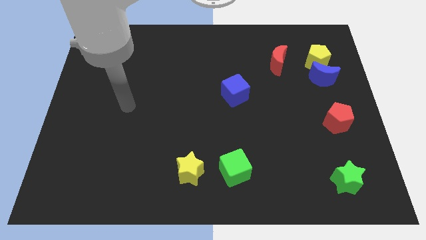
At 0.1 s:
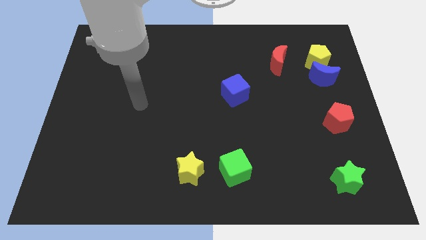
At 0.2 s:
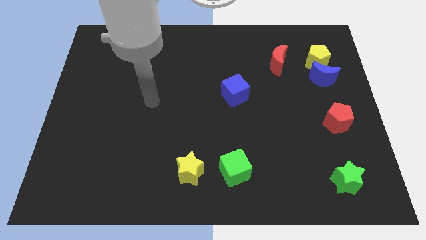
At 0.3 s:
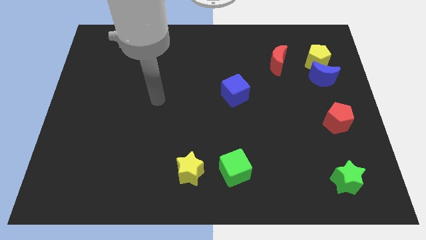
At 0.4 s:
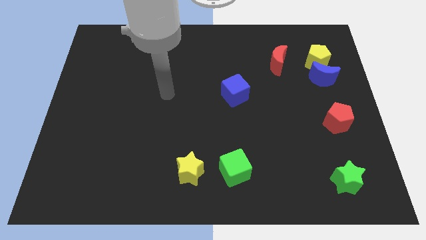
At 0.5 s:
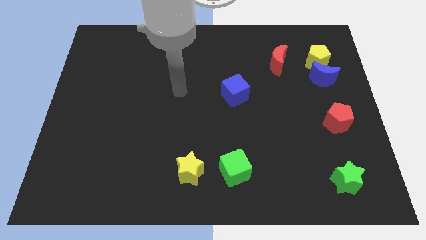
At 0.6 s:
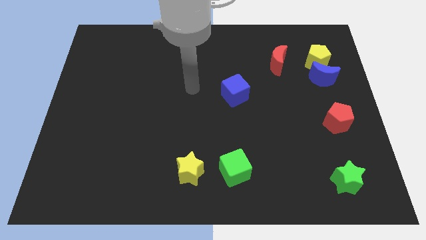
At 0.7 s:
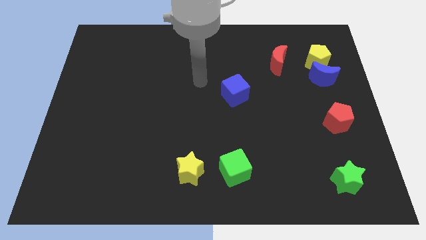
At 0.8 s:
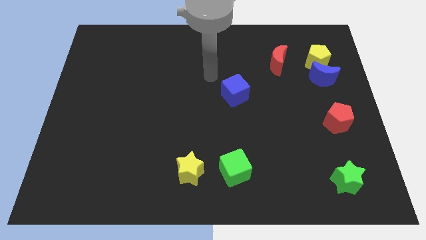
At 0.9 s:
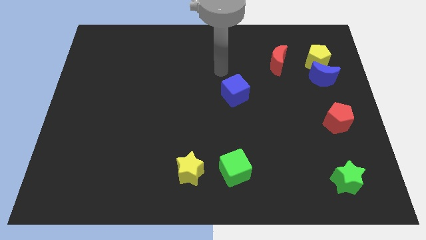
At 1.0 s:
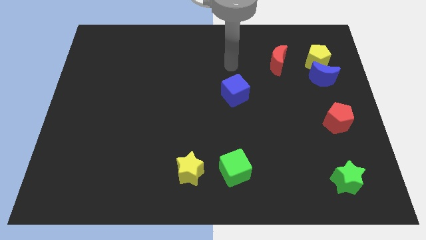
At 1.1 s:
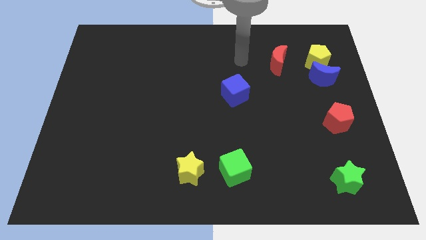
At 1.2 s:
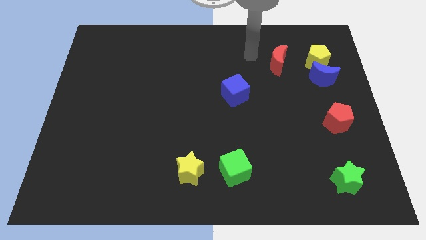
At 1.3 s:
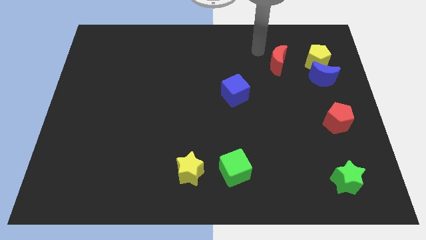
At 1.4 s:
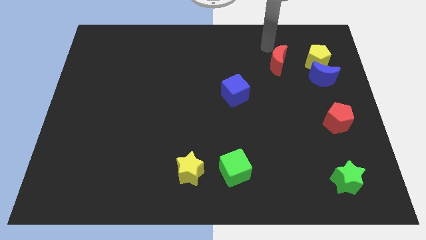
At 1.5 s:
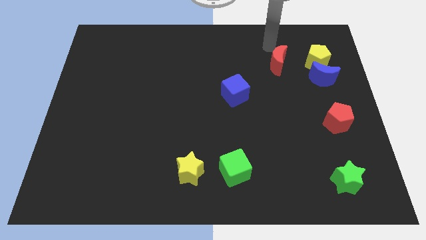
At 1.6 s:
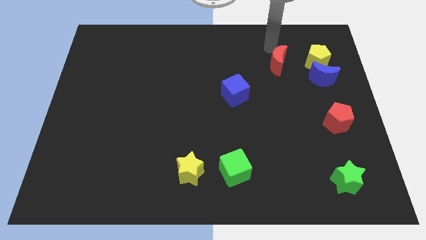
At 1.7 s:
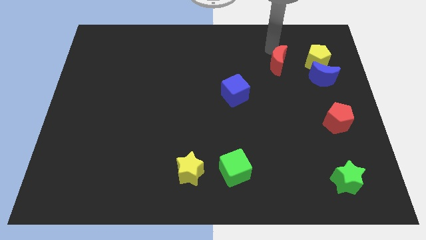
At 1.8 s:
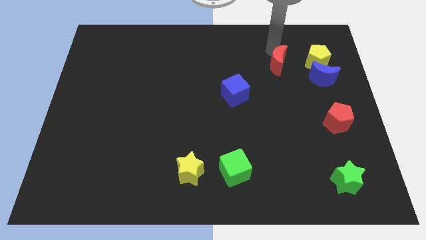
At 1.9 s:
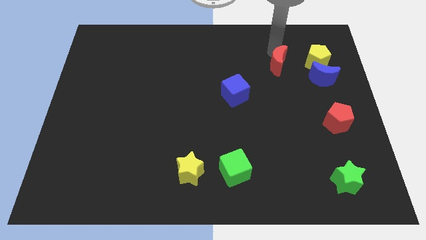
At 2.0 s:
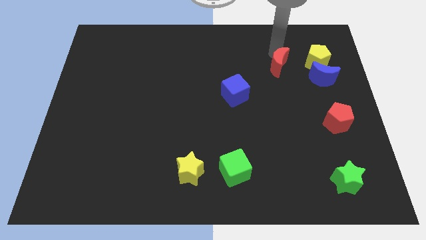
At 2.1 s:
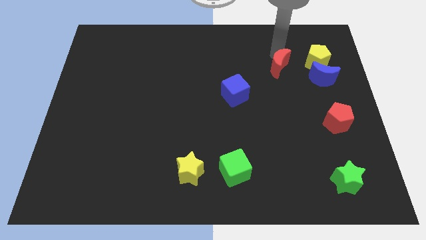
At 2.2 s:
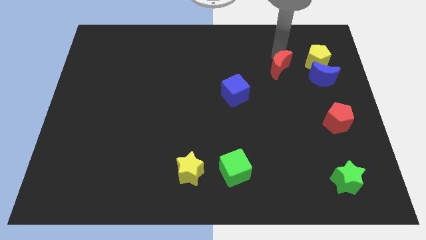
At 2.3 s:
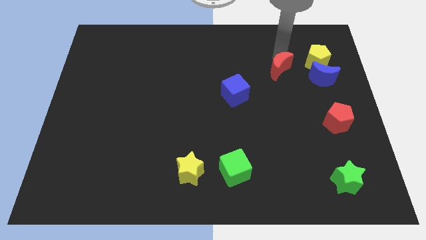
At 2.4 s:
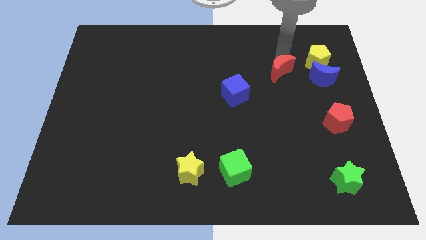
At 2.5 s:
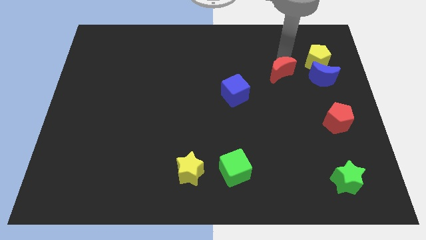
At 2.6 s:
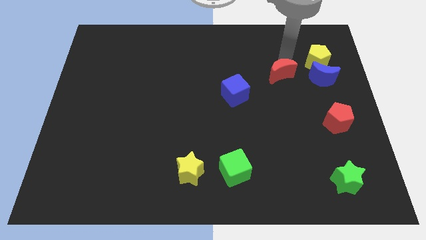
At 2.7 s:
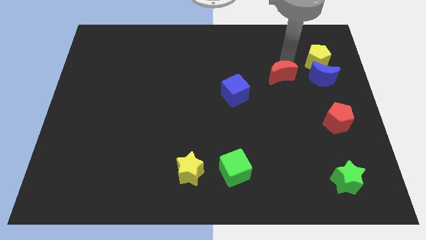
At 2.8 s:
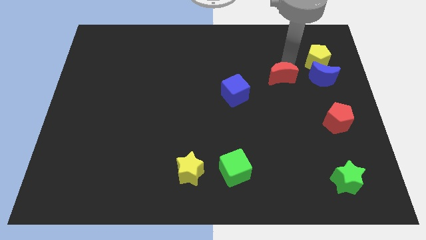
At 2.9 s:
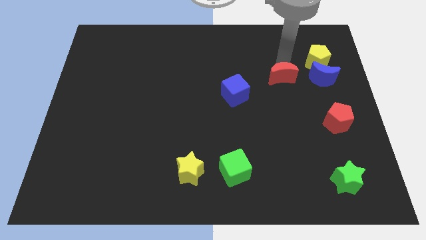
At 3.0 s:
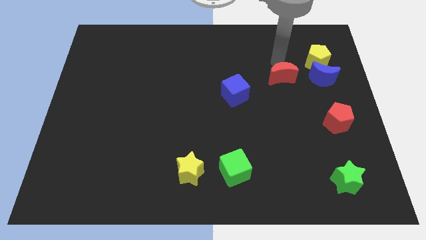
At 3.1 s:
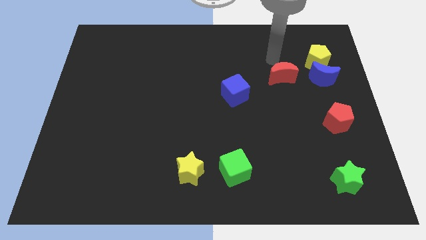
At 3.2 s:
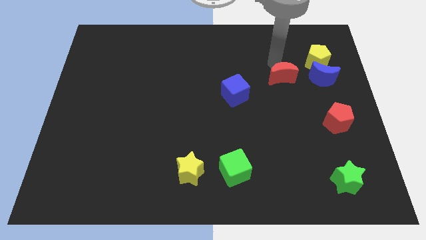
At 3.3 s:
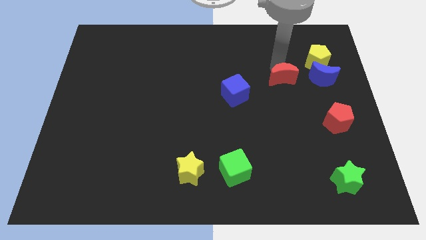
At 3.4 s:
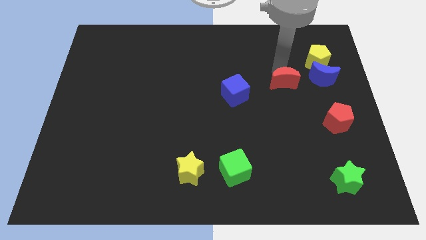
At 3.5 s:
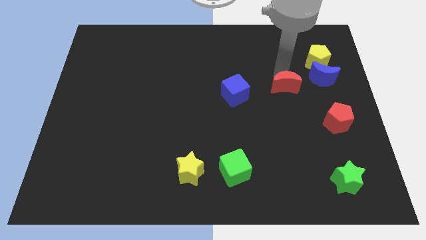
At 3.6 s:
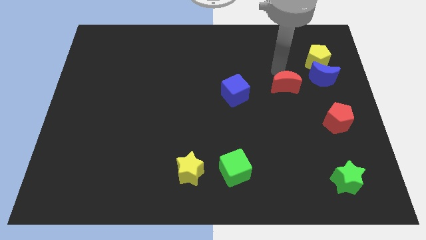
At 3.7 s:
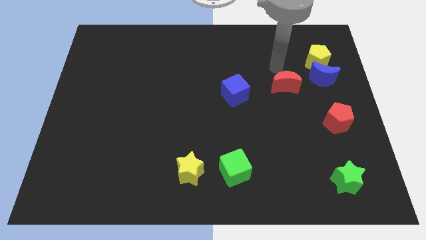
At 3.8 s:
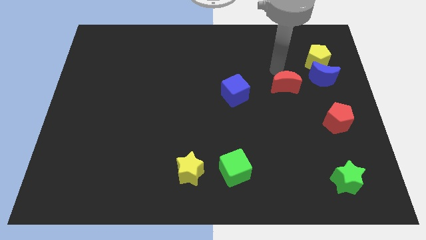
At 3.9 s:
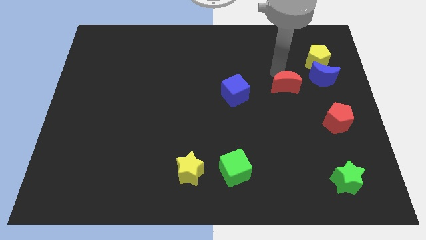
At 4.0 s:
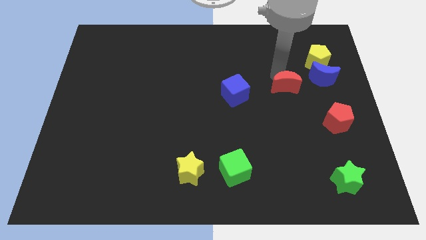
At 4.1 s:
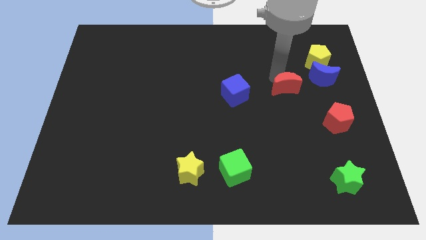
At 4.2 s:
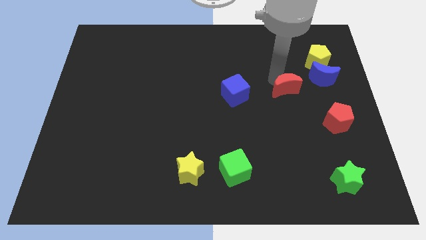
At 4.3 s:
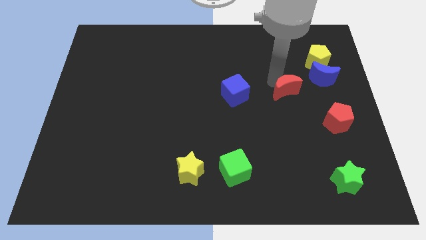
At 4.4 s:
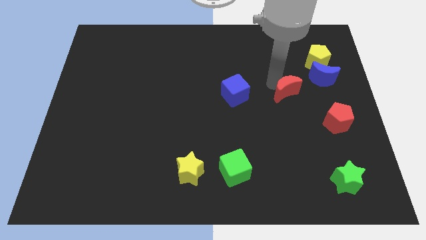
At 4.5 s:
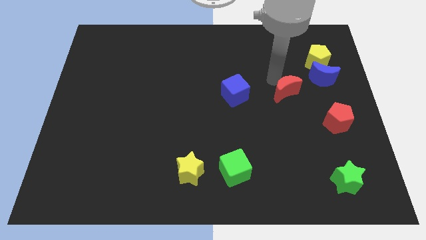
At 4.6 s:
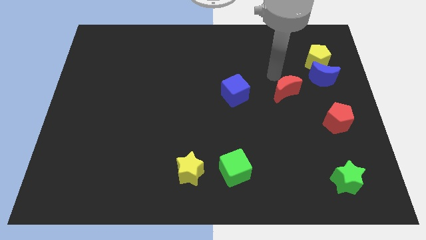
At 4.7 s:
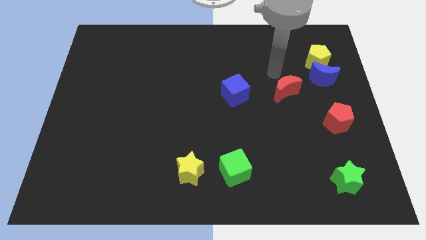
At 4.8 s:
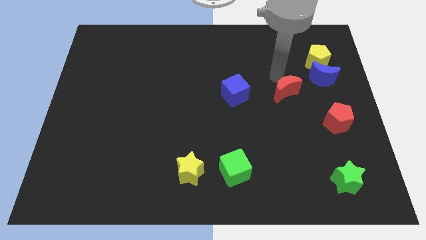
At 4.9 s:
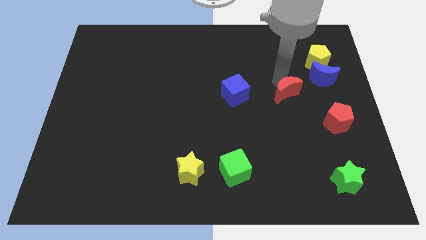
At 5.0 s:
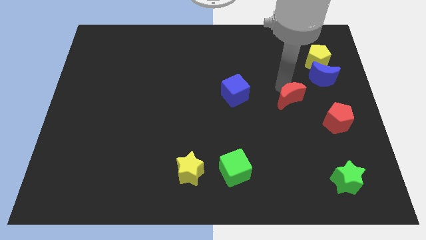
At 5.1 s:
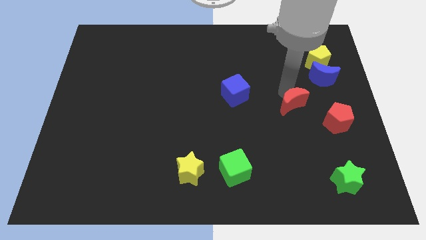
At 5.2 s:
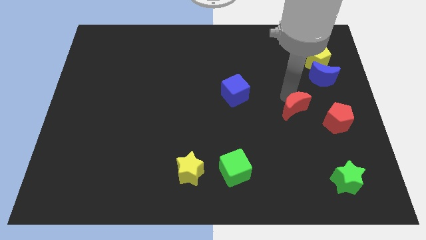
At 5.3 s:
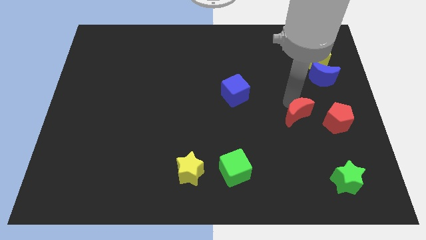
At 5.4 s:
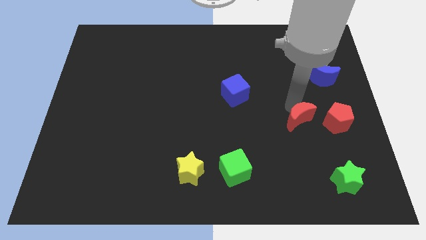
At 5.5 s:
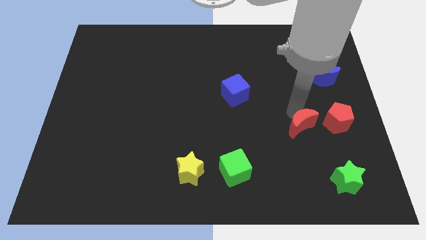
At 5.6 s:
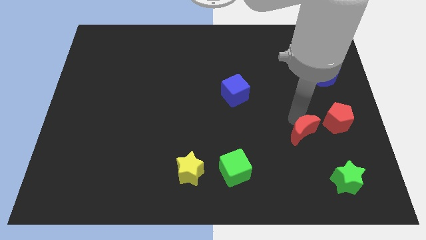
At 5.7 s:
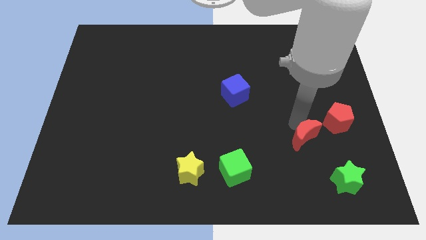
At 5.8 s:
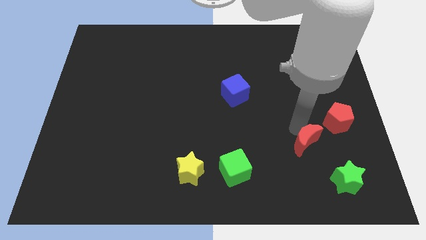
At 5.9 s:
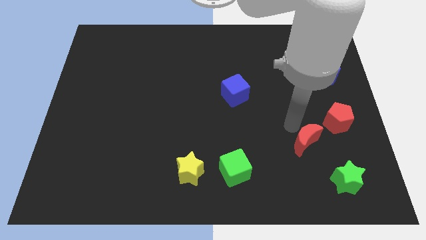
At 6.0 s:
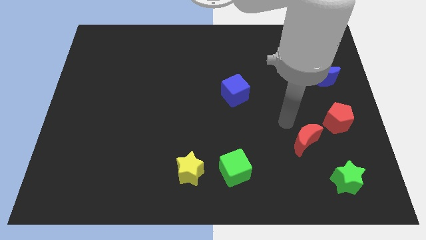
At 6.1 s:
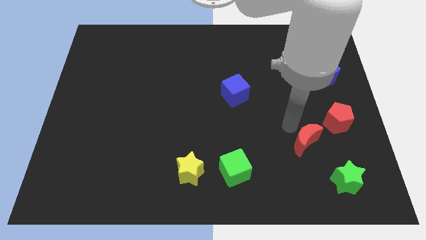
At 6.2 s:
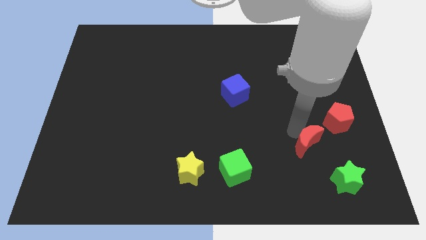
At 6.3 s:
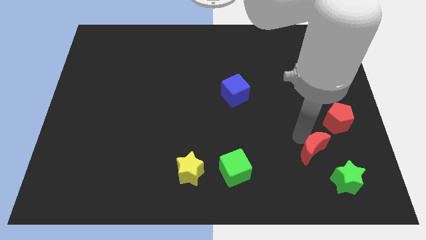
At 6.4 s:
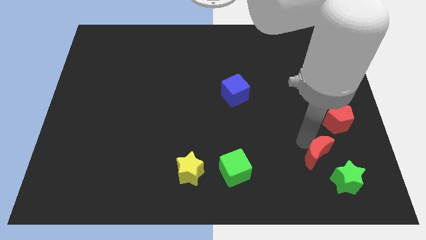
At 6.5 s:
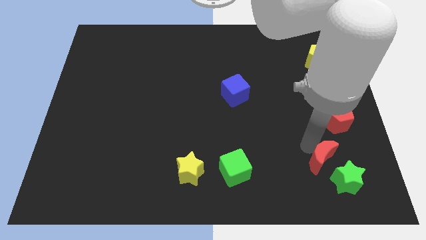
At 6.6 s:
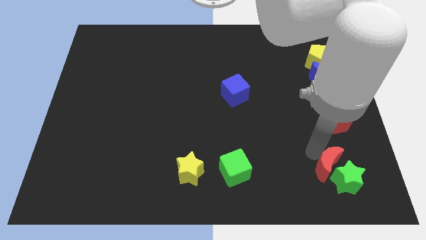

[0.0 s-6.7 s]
slide the red moon towards the green star

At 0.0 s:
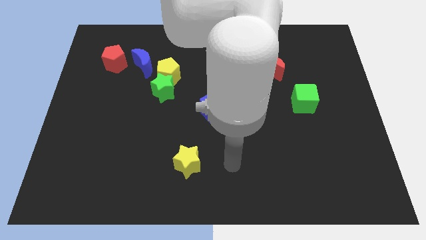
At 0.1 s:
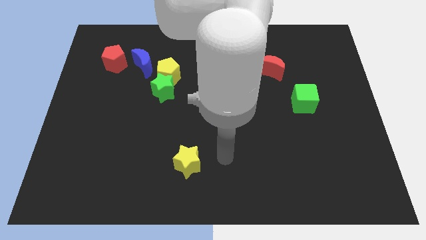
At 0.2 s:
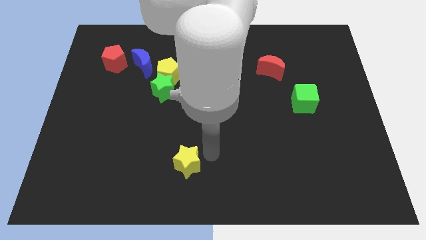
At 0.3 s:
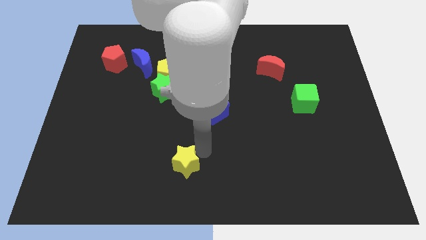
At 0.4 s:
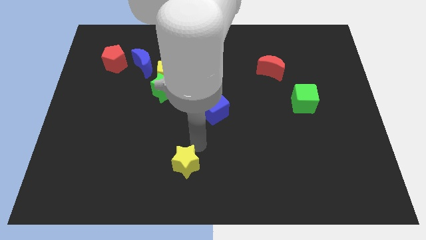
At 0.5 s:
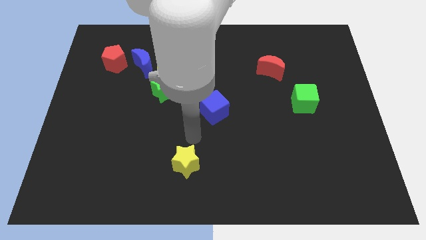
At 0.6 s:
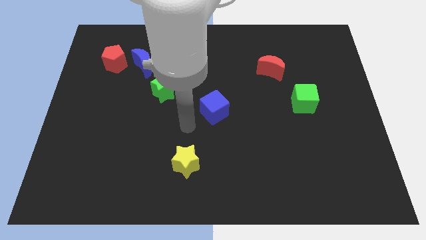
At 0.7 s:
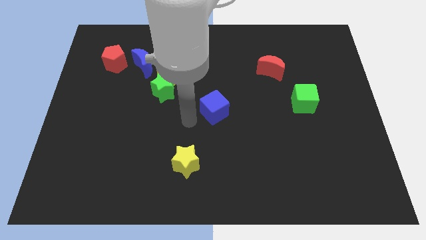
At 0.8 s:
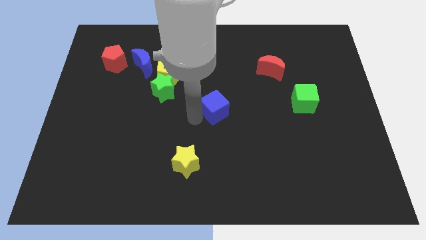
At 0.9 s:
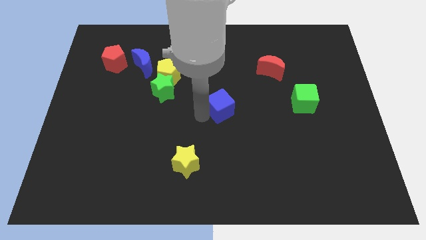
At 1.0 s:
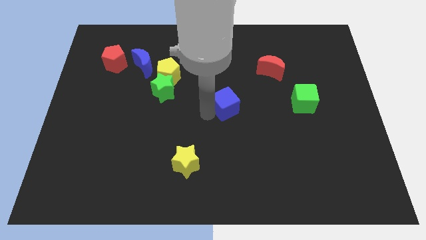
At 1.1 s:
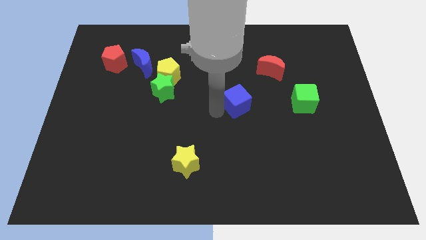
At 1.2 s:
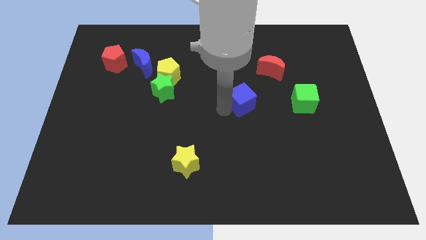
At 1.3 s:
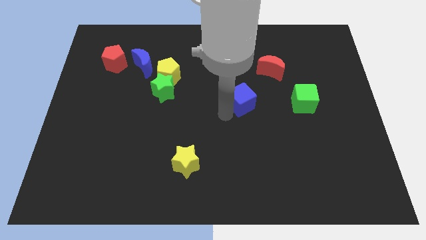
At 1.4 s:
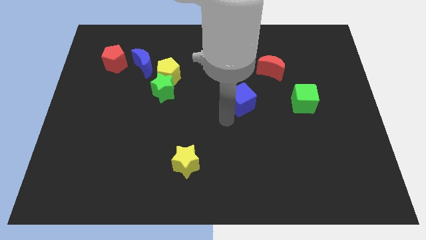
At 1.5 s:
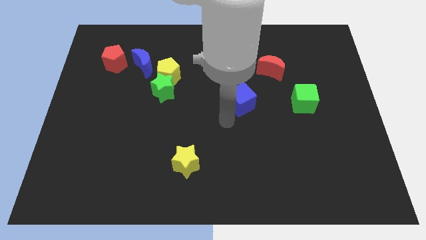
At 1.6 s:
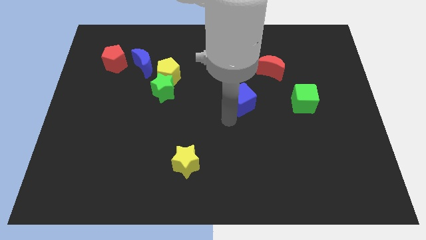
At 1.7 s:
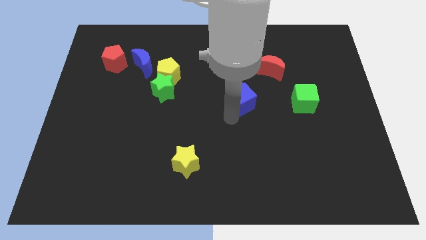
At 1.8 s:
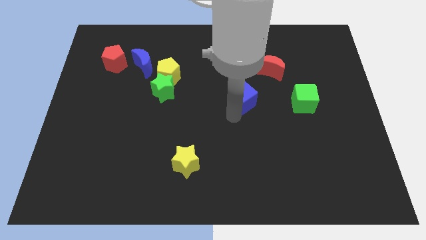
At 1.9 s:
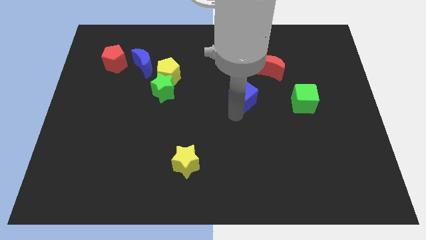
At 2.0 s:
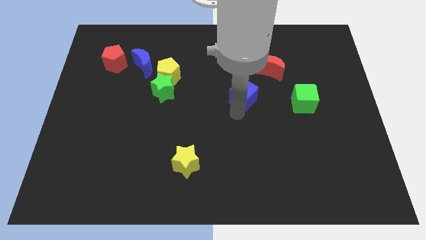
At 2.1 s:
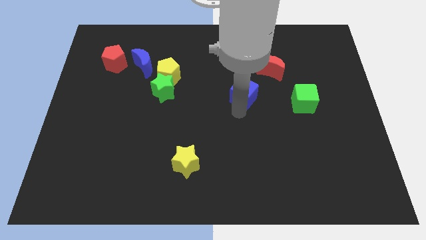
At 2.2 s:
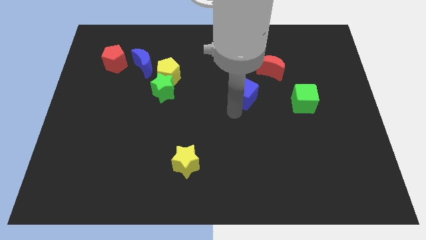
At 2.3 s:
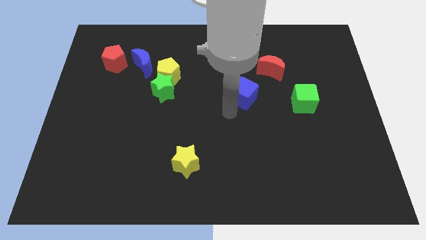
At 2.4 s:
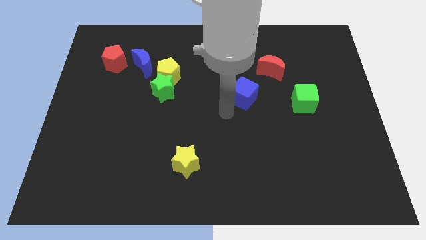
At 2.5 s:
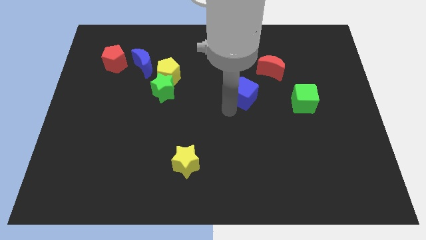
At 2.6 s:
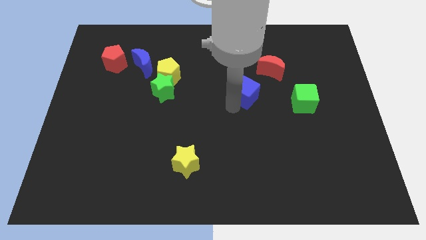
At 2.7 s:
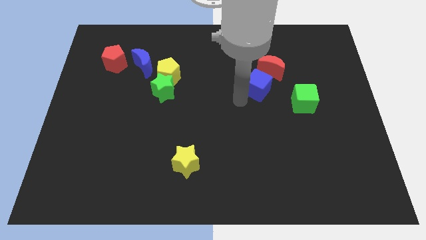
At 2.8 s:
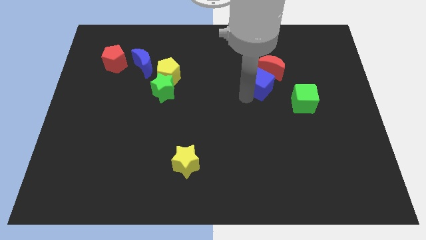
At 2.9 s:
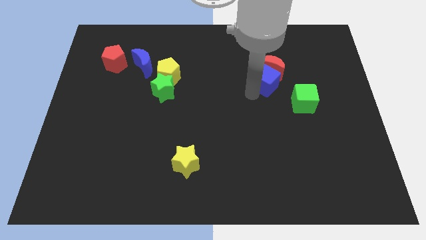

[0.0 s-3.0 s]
slide the blue cube next to the red moon
